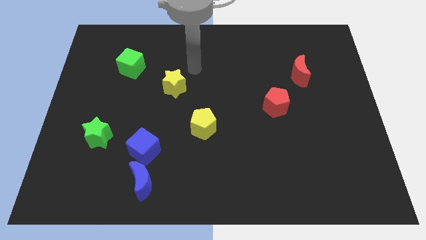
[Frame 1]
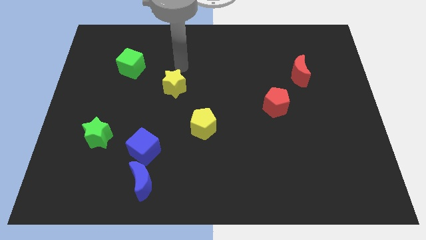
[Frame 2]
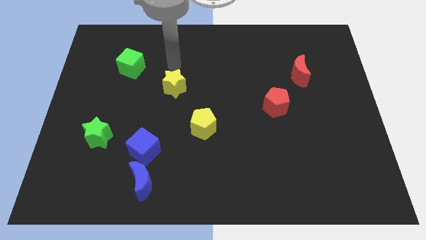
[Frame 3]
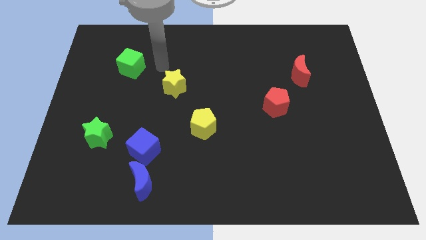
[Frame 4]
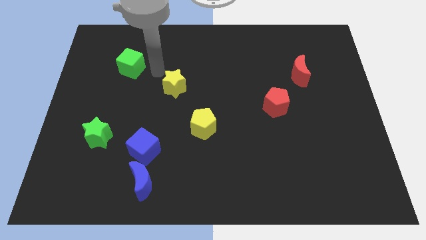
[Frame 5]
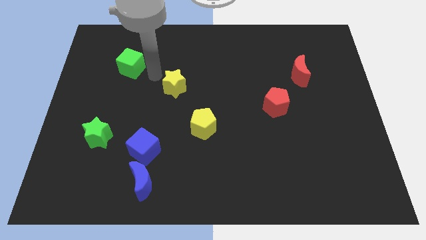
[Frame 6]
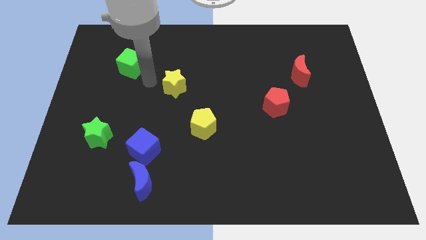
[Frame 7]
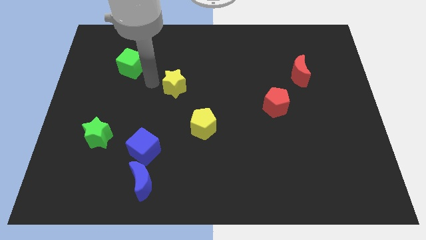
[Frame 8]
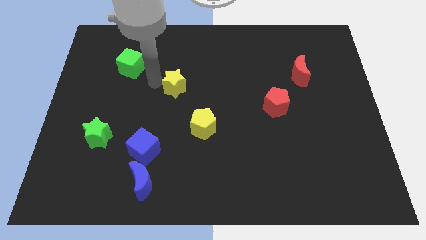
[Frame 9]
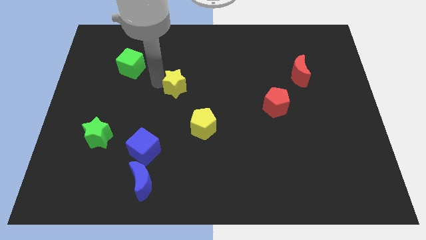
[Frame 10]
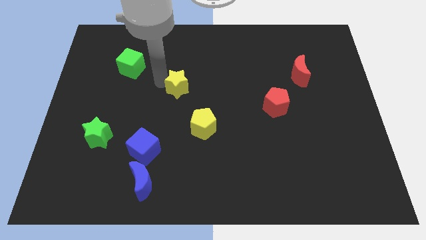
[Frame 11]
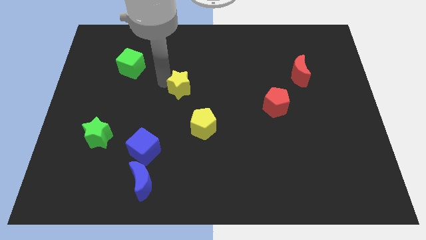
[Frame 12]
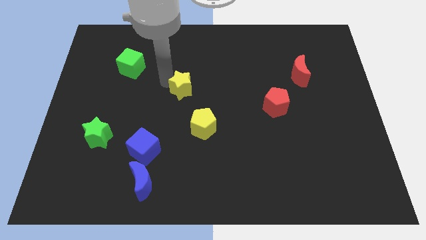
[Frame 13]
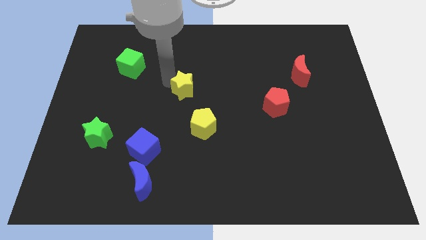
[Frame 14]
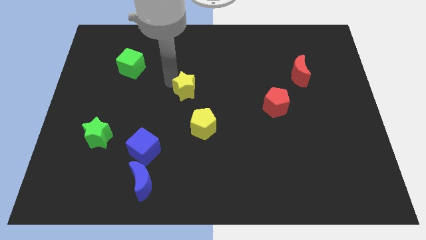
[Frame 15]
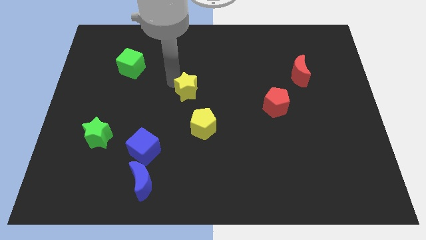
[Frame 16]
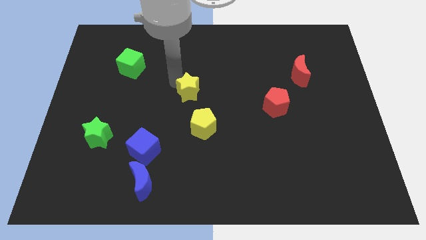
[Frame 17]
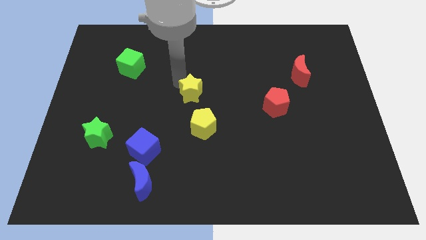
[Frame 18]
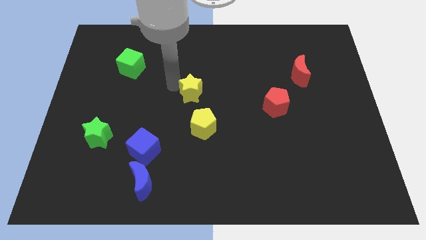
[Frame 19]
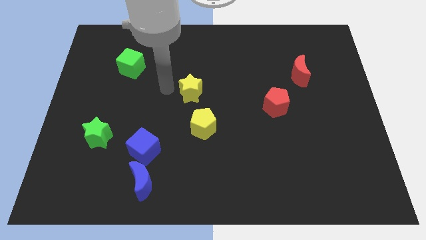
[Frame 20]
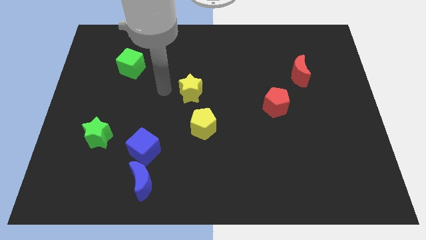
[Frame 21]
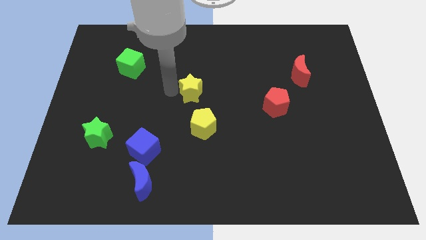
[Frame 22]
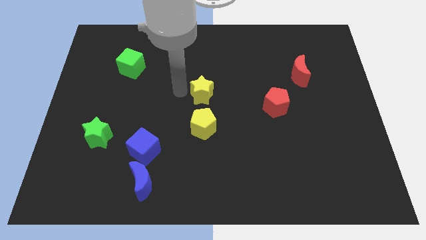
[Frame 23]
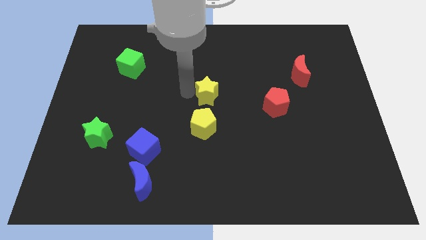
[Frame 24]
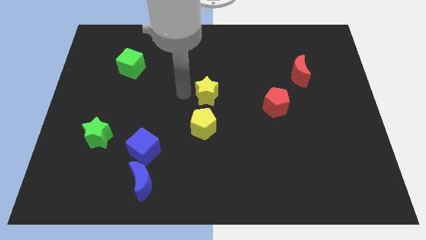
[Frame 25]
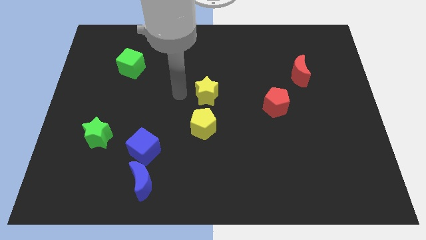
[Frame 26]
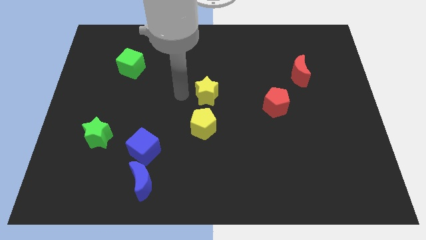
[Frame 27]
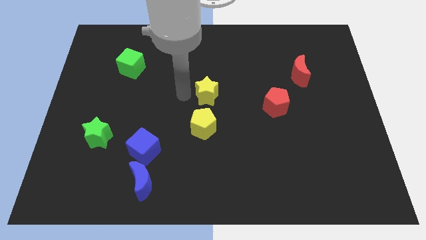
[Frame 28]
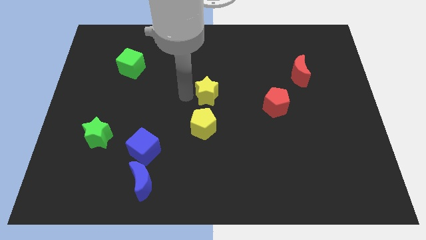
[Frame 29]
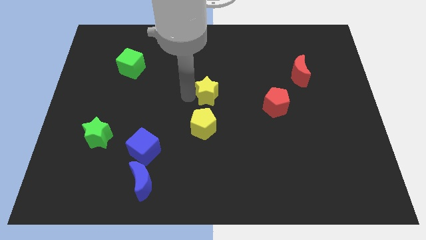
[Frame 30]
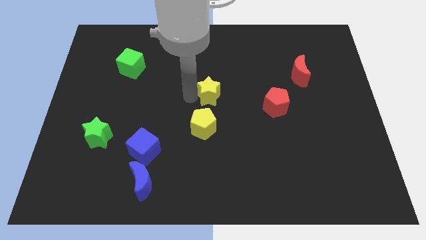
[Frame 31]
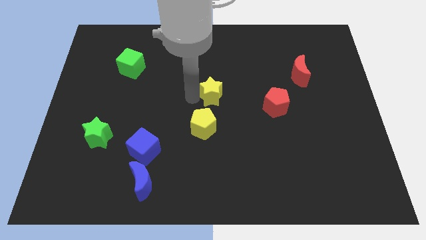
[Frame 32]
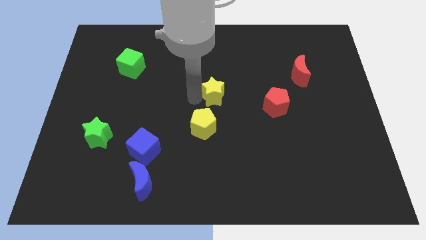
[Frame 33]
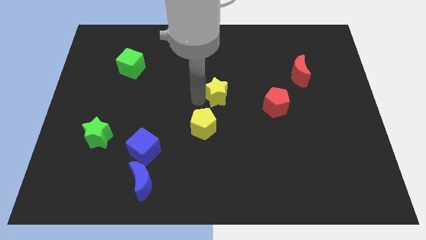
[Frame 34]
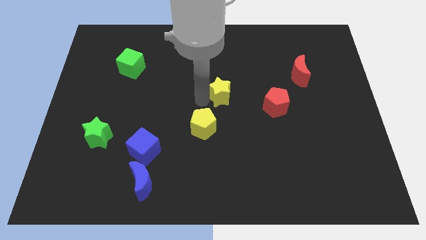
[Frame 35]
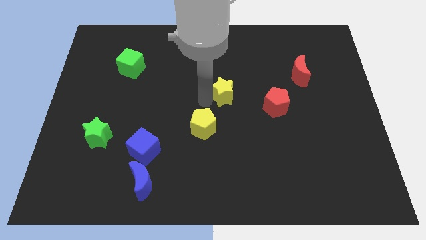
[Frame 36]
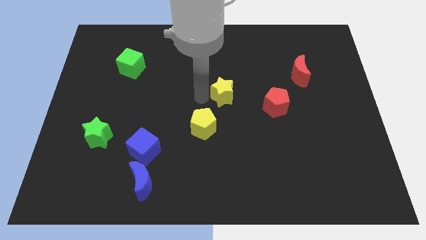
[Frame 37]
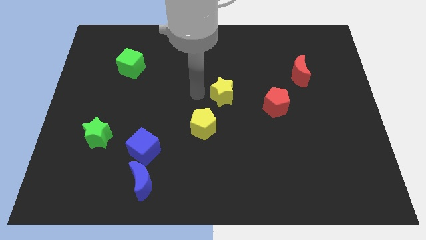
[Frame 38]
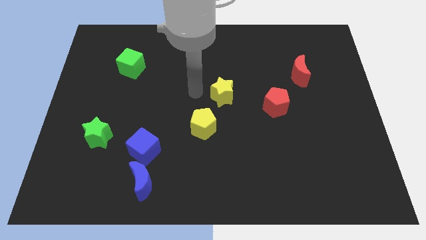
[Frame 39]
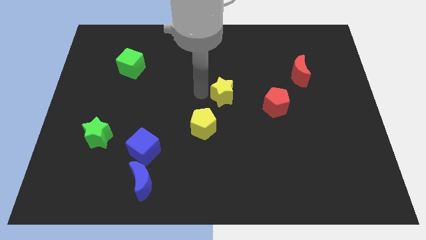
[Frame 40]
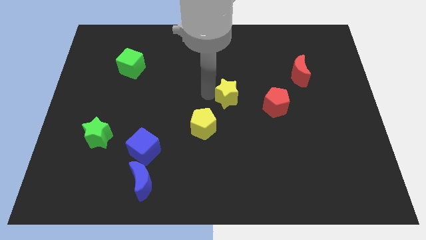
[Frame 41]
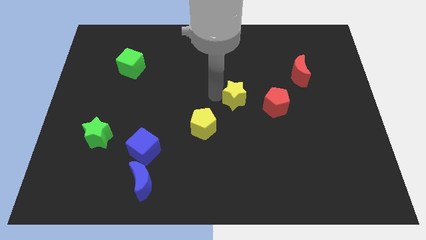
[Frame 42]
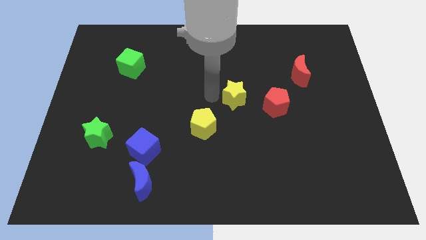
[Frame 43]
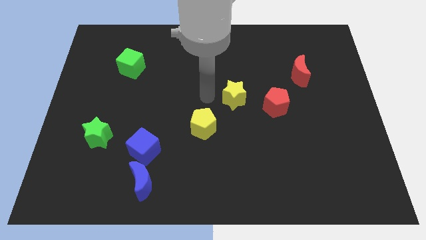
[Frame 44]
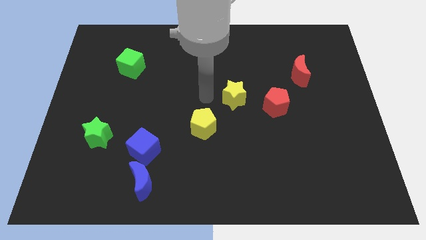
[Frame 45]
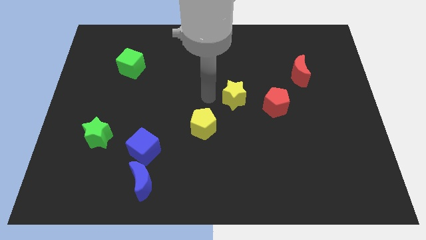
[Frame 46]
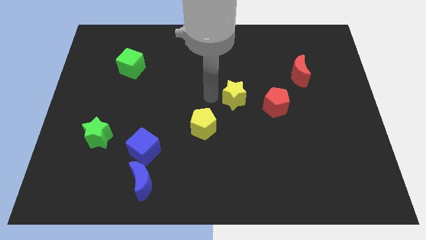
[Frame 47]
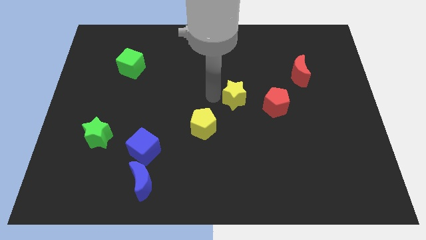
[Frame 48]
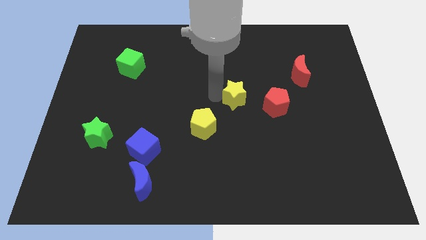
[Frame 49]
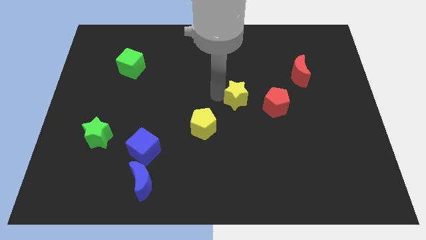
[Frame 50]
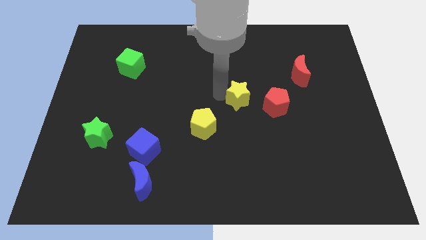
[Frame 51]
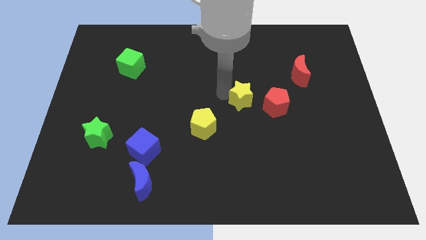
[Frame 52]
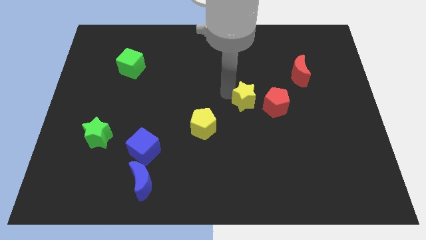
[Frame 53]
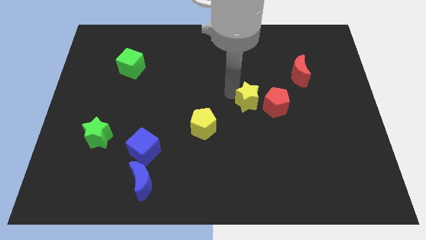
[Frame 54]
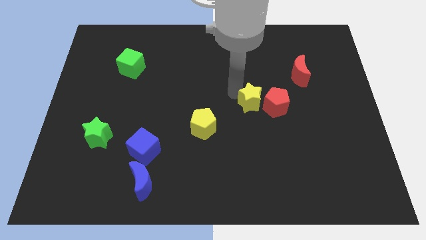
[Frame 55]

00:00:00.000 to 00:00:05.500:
slide the yellow star to the red pentagon

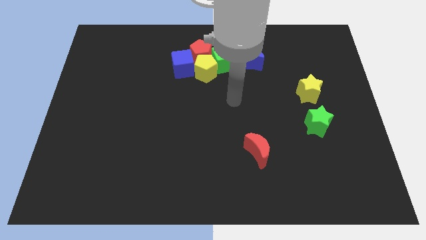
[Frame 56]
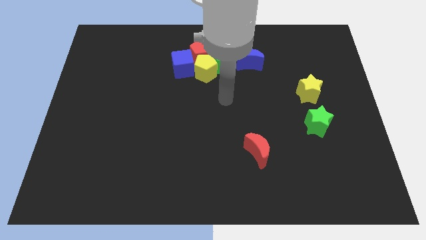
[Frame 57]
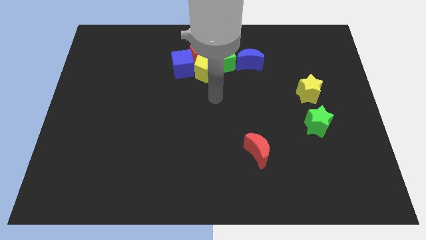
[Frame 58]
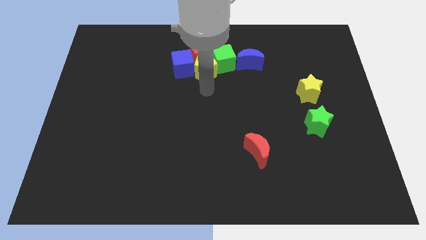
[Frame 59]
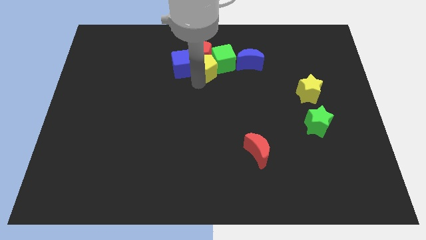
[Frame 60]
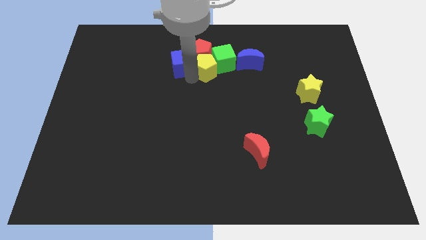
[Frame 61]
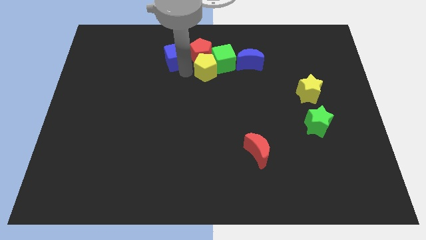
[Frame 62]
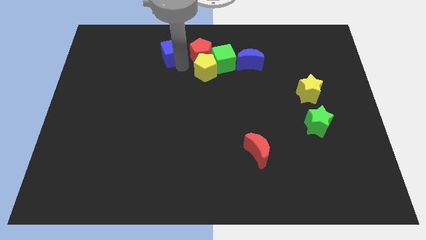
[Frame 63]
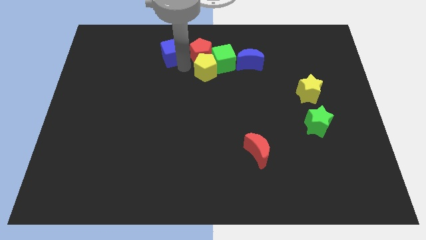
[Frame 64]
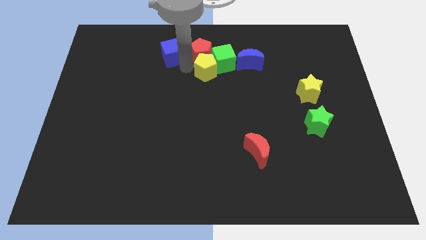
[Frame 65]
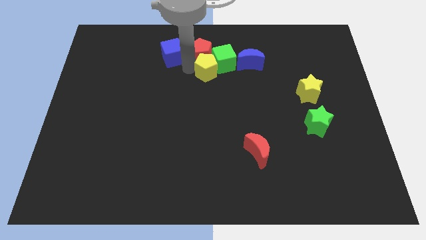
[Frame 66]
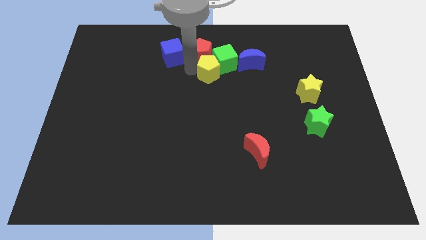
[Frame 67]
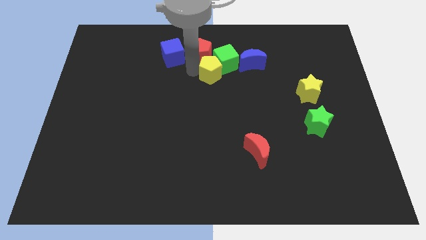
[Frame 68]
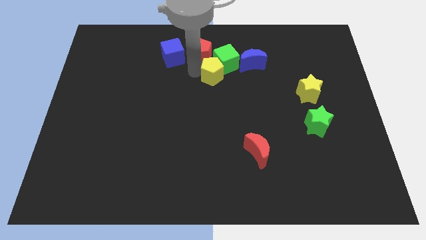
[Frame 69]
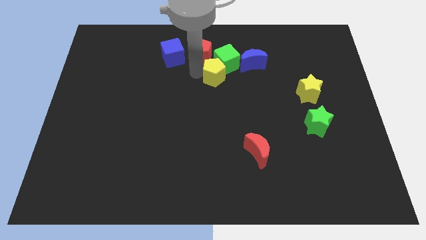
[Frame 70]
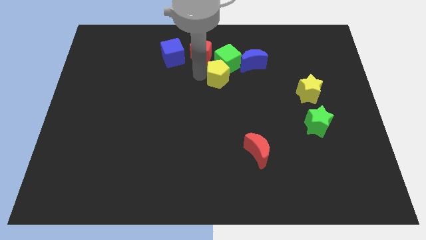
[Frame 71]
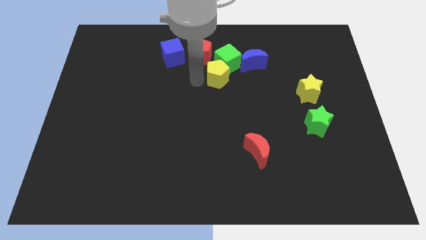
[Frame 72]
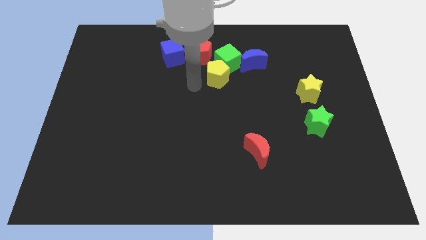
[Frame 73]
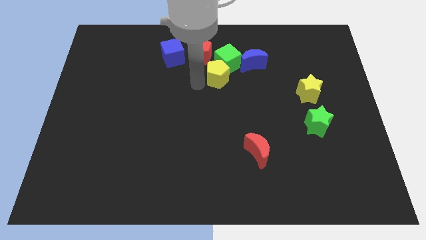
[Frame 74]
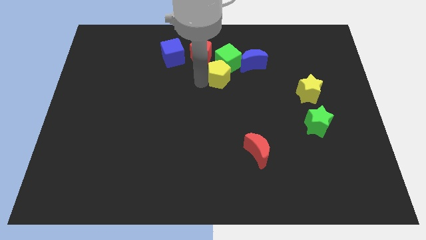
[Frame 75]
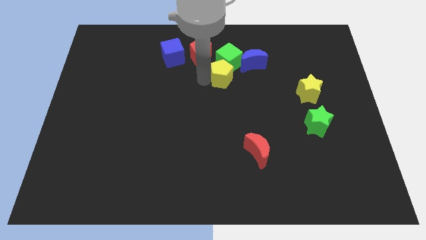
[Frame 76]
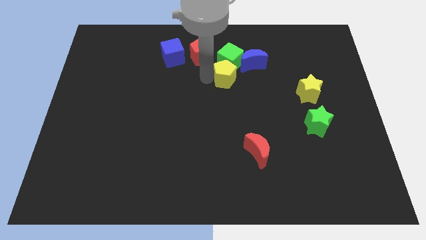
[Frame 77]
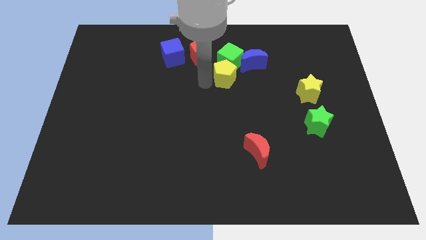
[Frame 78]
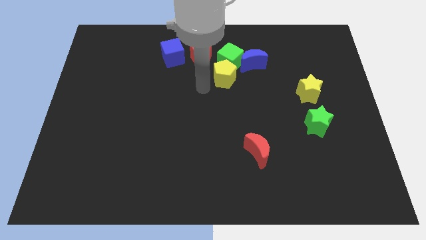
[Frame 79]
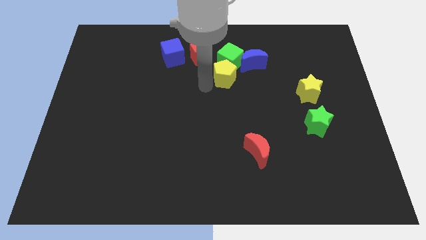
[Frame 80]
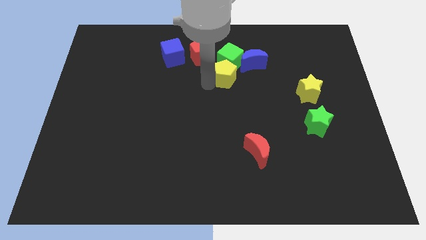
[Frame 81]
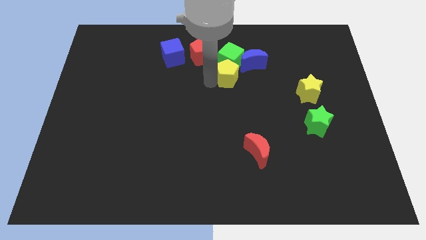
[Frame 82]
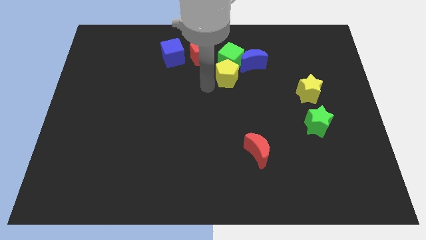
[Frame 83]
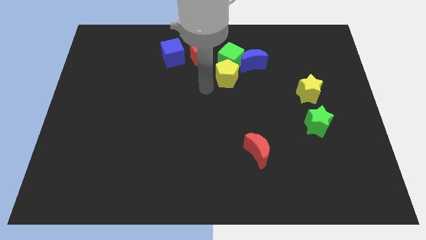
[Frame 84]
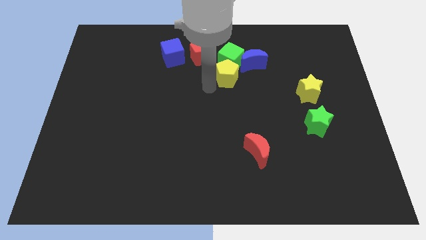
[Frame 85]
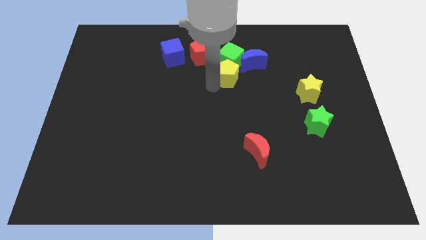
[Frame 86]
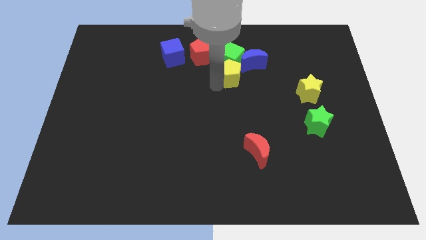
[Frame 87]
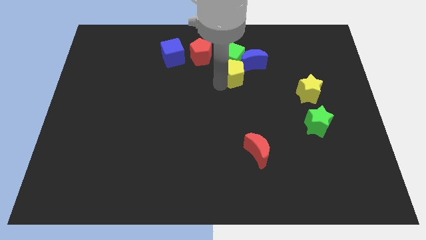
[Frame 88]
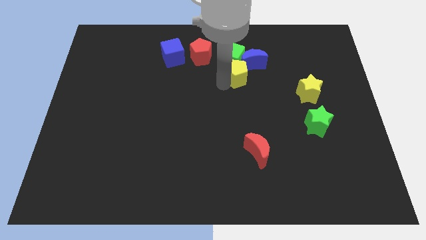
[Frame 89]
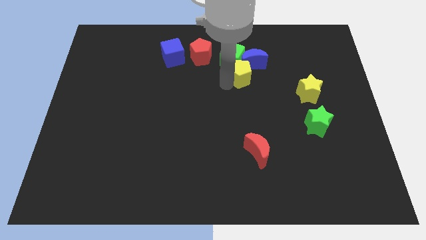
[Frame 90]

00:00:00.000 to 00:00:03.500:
slide the yellow pentagon next to the blue moon
